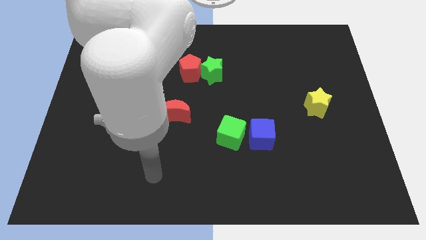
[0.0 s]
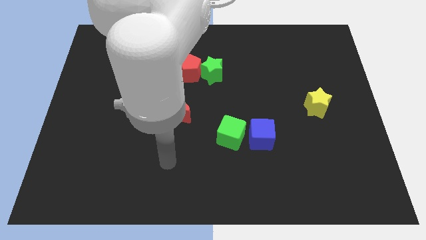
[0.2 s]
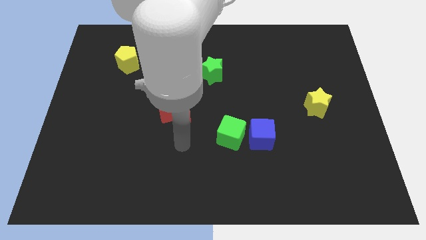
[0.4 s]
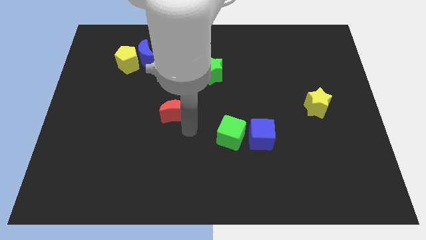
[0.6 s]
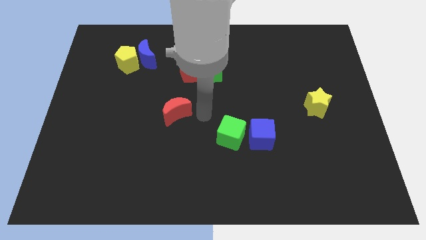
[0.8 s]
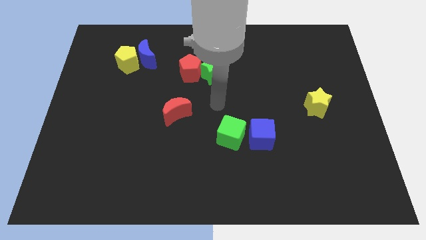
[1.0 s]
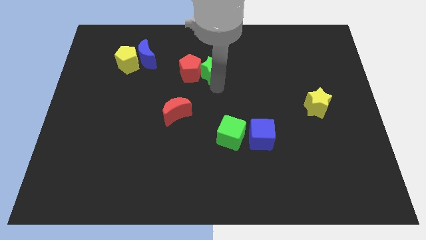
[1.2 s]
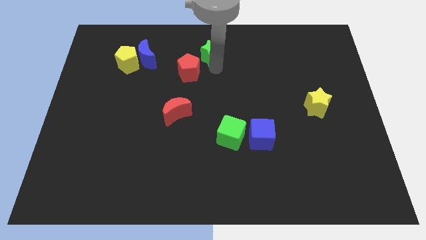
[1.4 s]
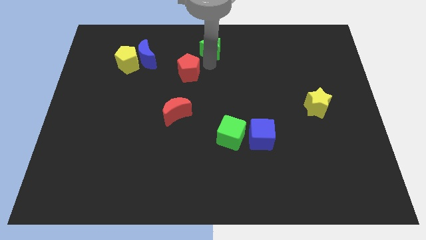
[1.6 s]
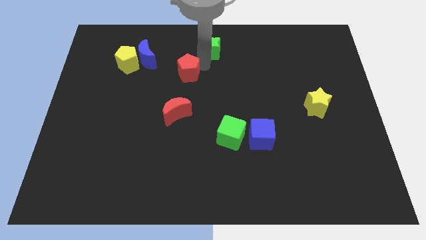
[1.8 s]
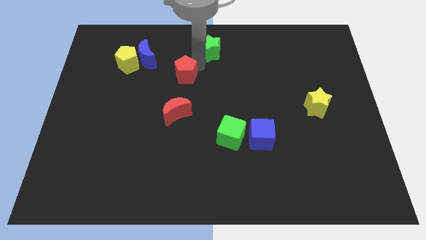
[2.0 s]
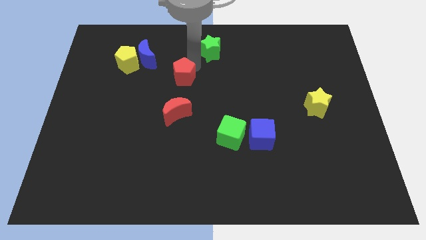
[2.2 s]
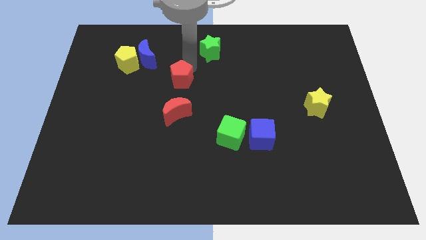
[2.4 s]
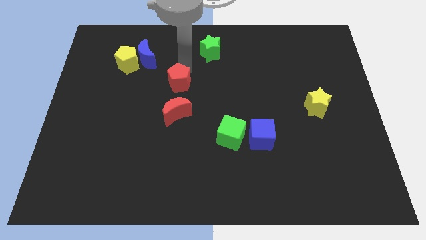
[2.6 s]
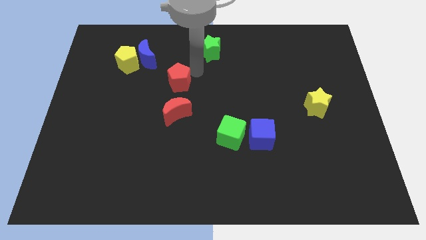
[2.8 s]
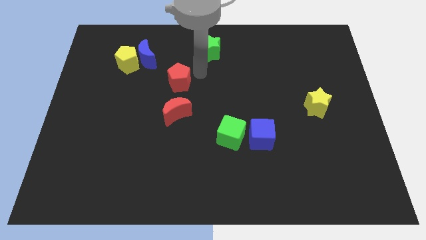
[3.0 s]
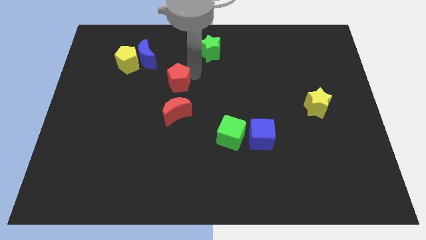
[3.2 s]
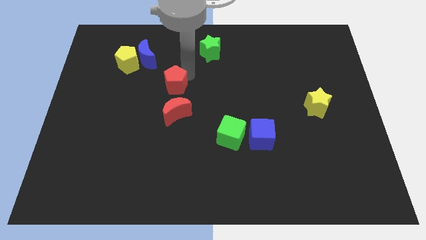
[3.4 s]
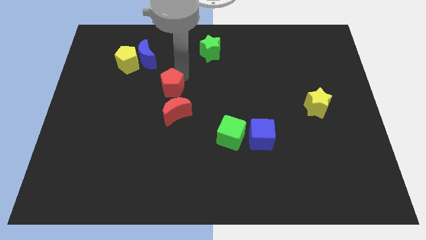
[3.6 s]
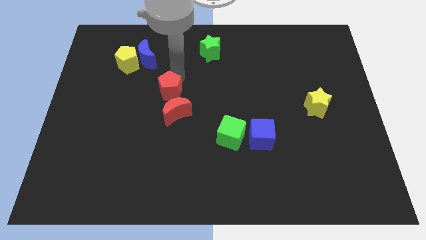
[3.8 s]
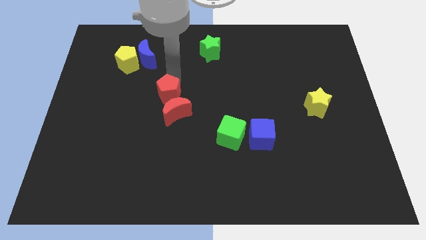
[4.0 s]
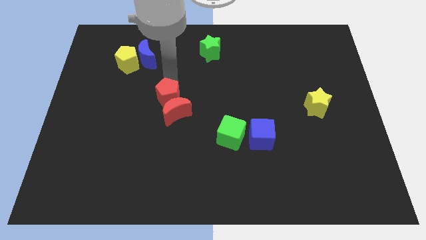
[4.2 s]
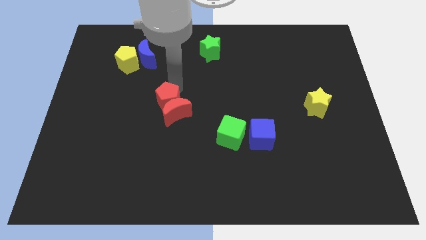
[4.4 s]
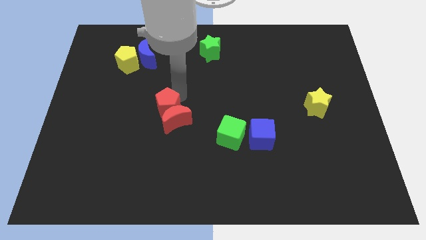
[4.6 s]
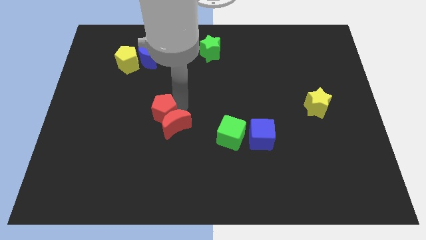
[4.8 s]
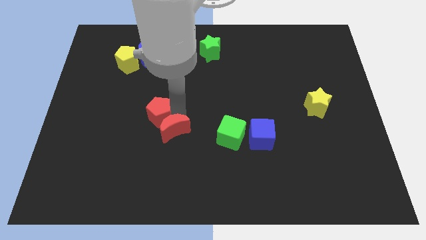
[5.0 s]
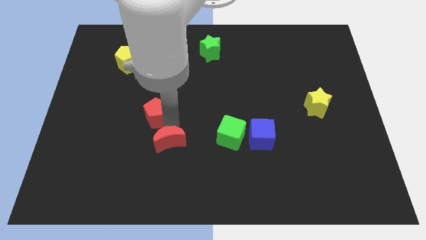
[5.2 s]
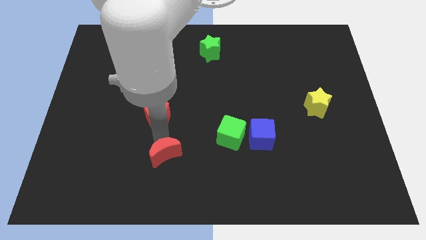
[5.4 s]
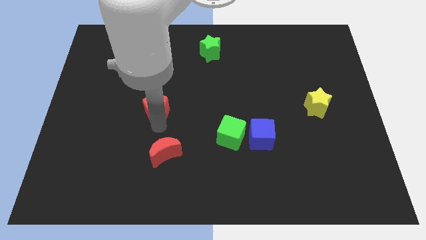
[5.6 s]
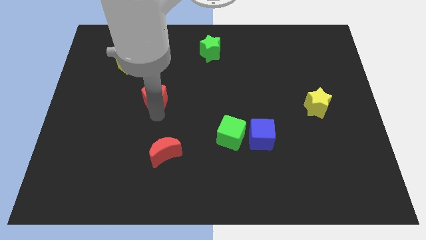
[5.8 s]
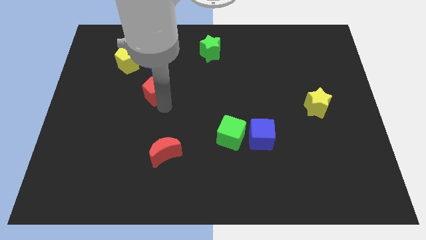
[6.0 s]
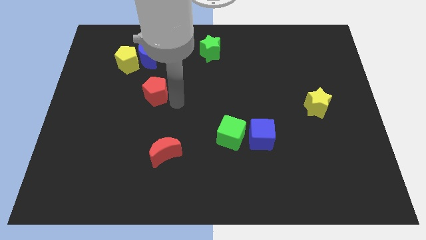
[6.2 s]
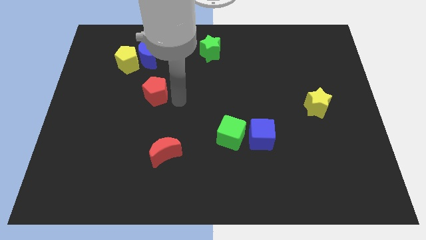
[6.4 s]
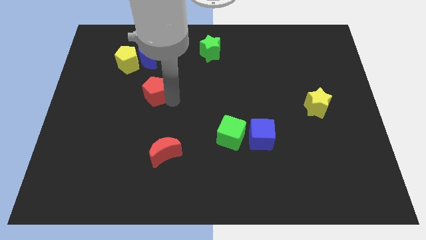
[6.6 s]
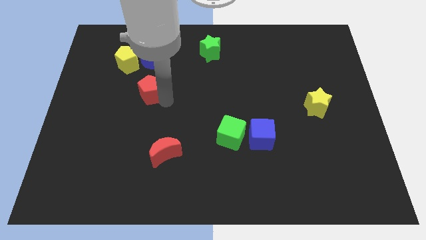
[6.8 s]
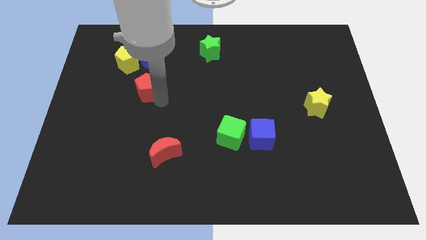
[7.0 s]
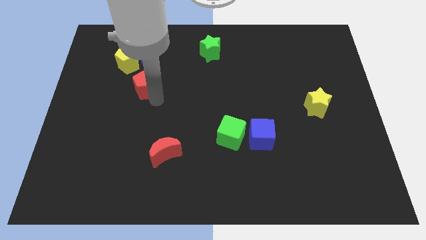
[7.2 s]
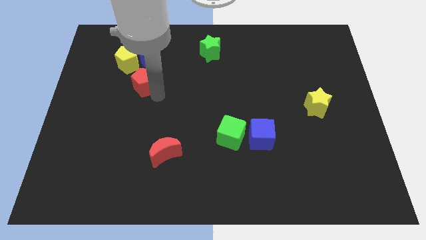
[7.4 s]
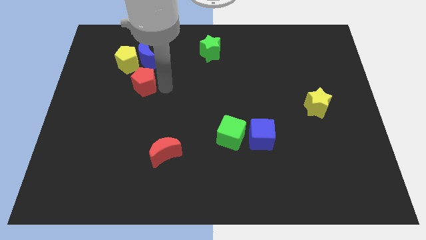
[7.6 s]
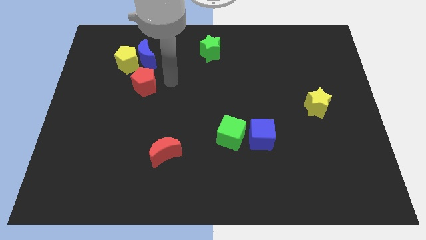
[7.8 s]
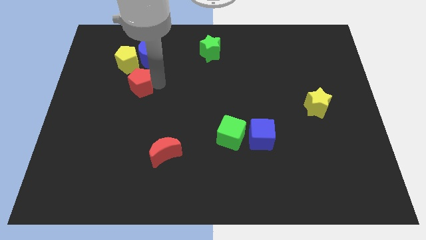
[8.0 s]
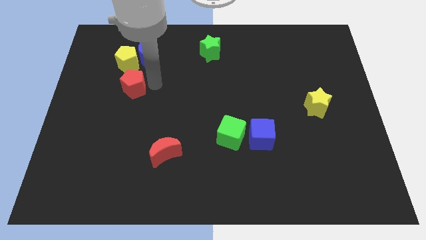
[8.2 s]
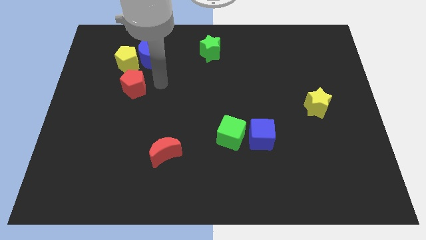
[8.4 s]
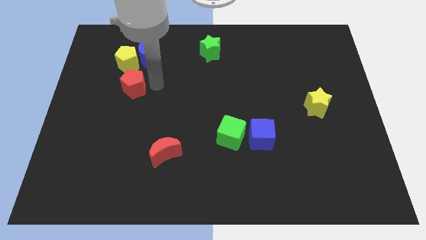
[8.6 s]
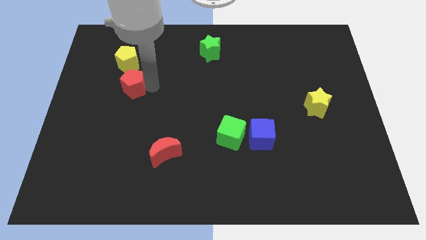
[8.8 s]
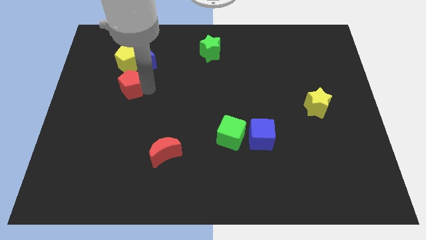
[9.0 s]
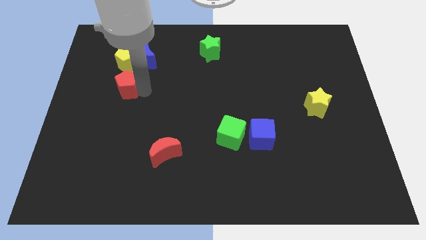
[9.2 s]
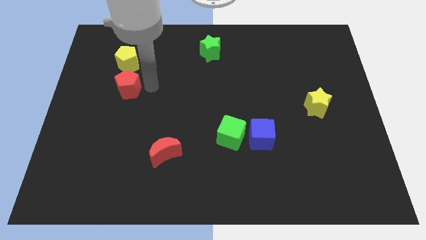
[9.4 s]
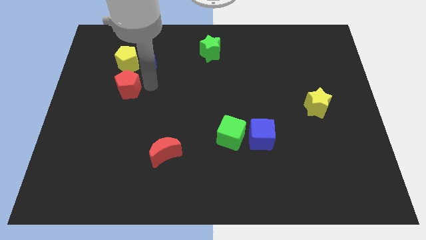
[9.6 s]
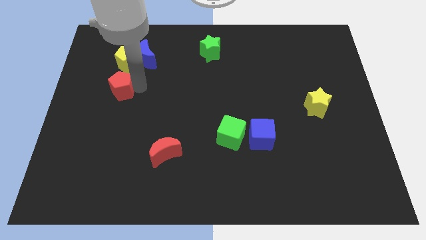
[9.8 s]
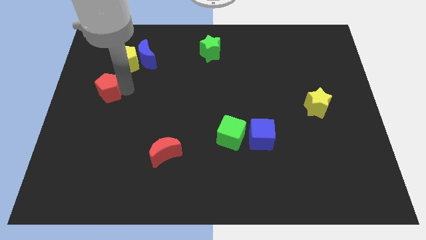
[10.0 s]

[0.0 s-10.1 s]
move the red pentagon to the left side

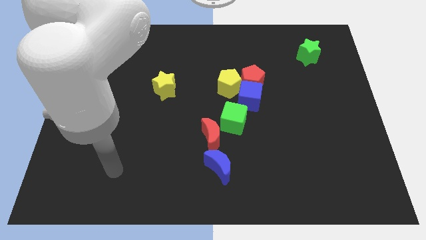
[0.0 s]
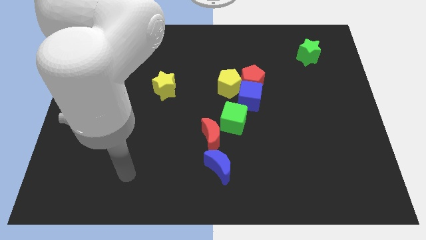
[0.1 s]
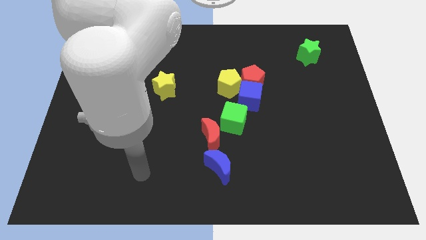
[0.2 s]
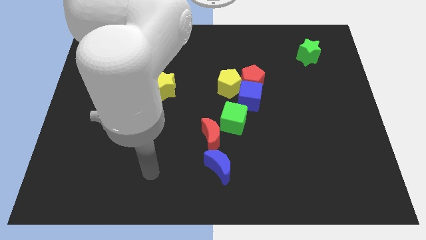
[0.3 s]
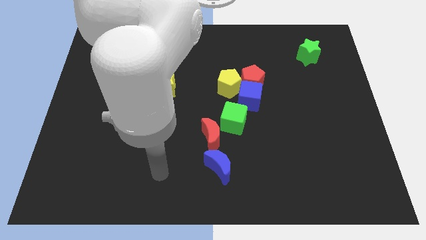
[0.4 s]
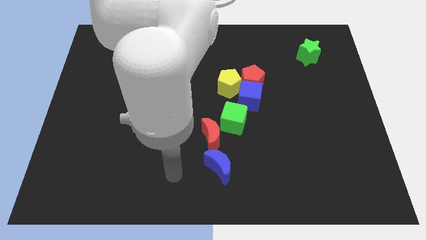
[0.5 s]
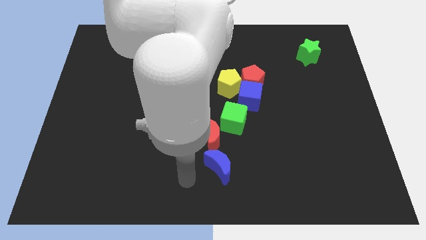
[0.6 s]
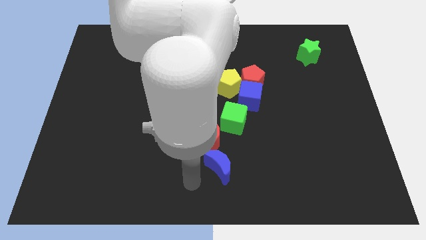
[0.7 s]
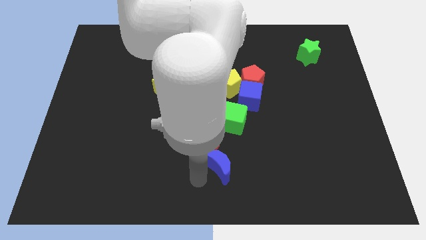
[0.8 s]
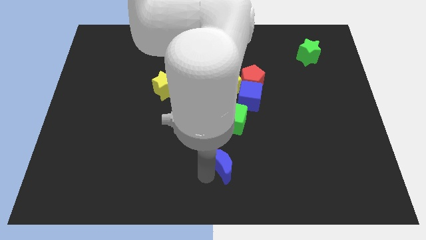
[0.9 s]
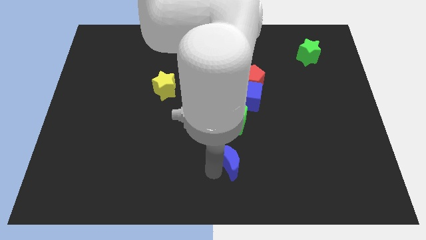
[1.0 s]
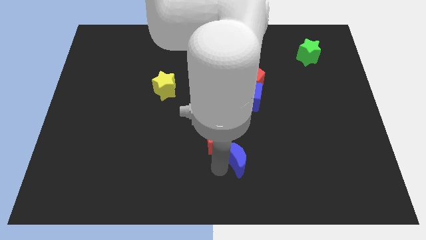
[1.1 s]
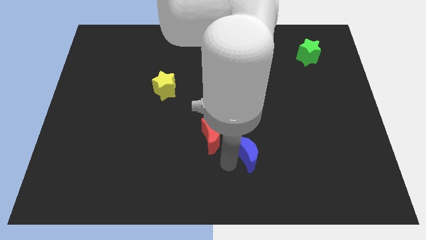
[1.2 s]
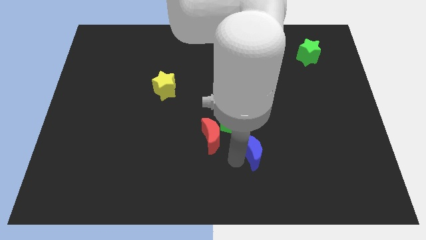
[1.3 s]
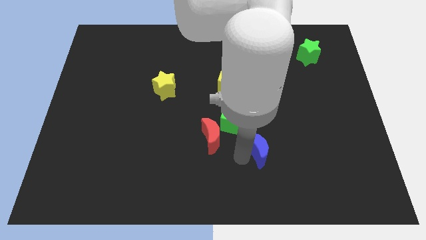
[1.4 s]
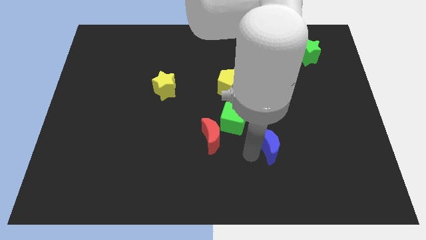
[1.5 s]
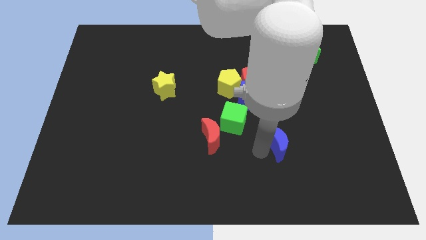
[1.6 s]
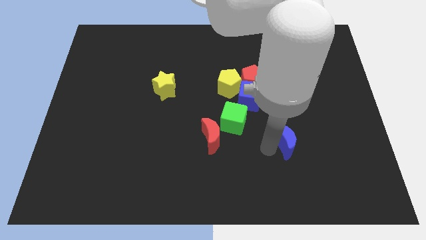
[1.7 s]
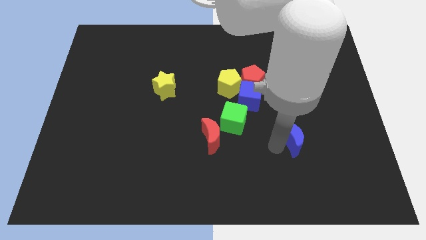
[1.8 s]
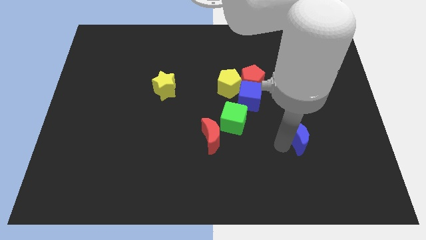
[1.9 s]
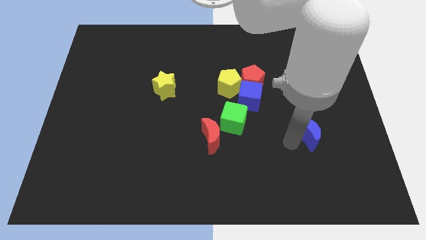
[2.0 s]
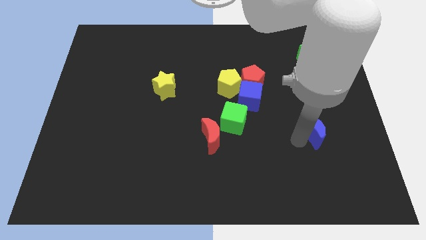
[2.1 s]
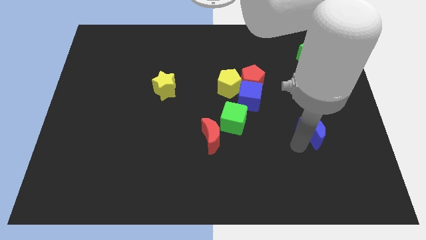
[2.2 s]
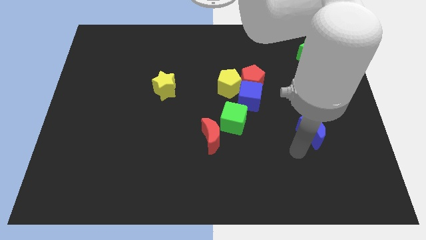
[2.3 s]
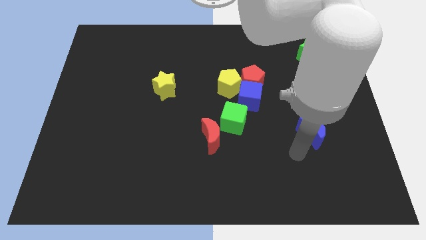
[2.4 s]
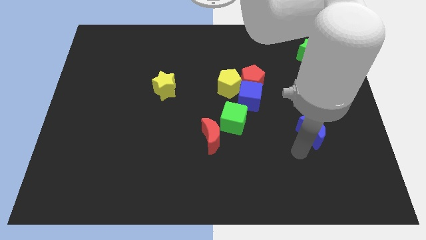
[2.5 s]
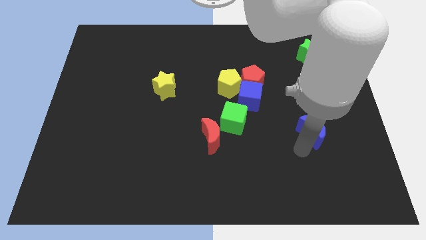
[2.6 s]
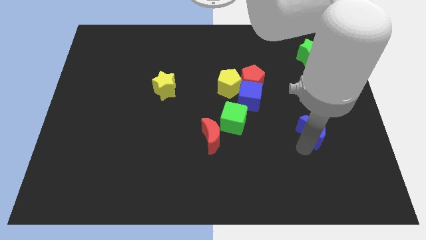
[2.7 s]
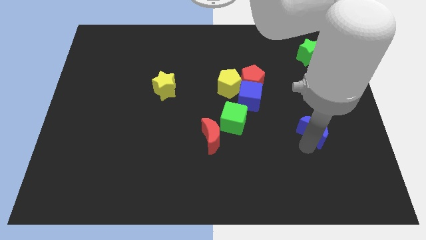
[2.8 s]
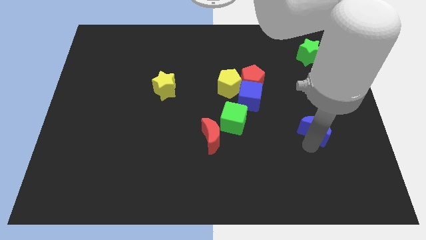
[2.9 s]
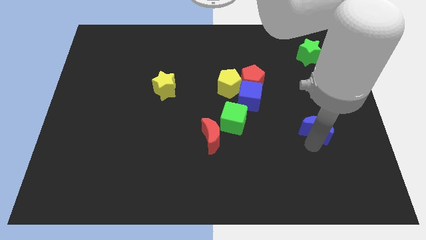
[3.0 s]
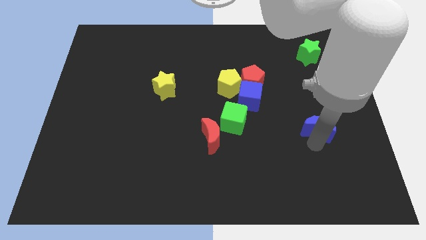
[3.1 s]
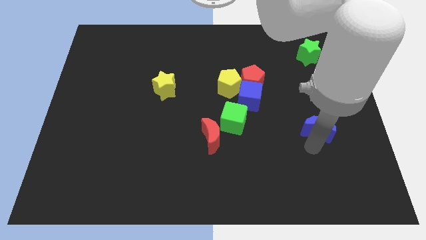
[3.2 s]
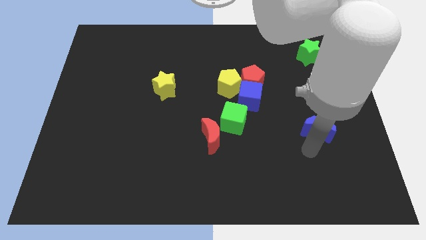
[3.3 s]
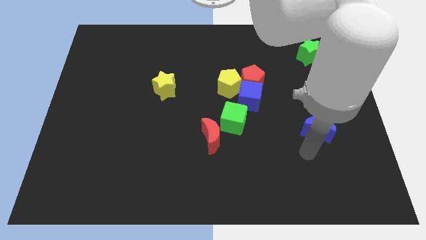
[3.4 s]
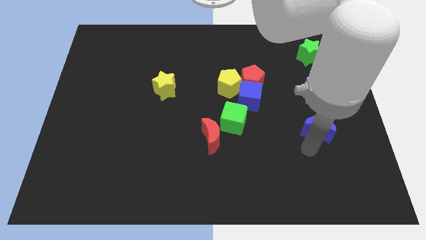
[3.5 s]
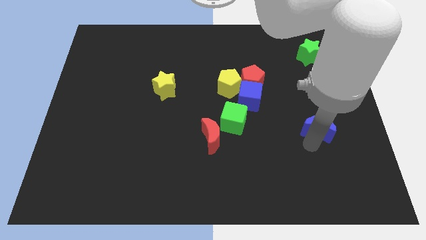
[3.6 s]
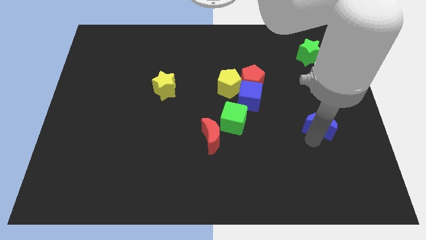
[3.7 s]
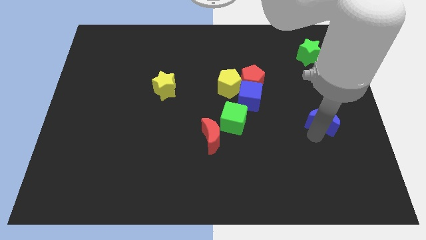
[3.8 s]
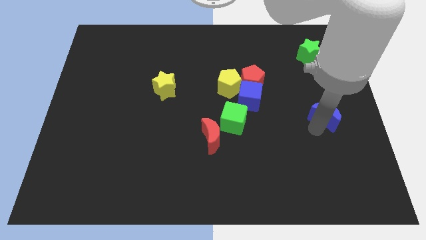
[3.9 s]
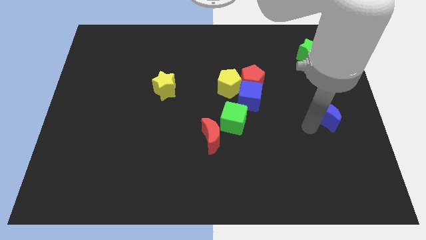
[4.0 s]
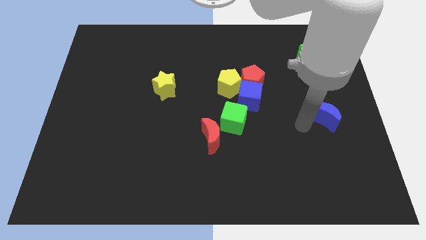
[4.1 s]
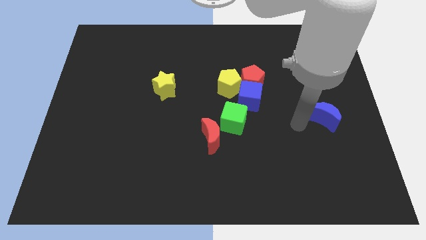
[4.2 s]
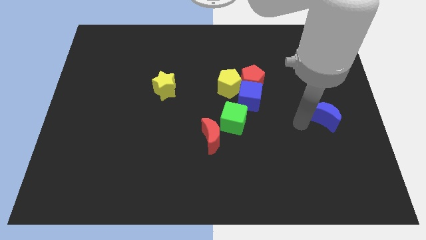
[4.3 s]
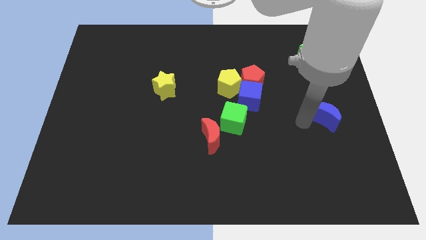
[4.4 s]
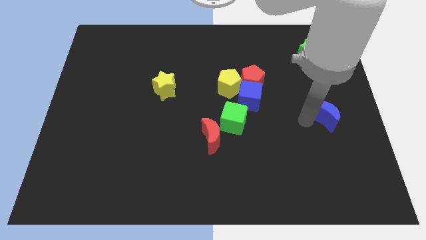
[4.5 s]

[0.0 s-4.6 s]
slide the blue moon to the center right
